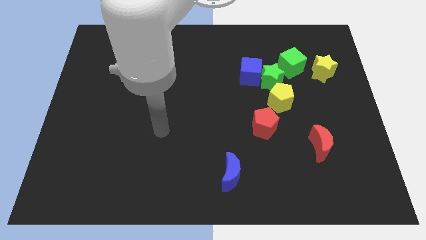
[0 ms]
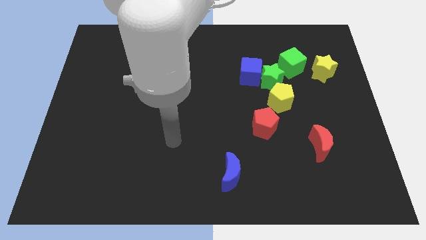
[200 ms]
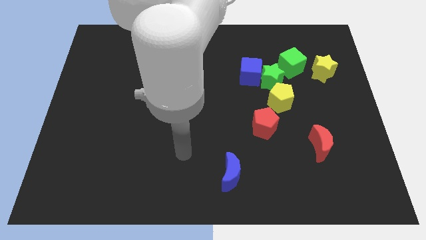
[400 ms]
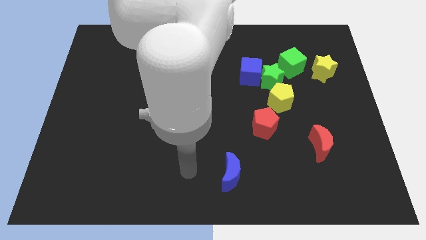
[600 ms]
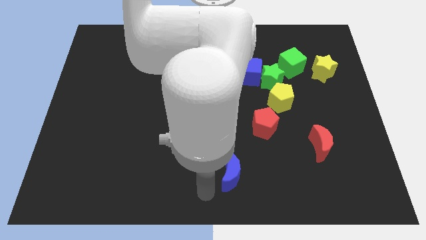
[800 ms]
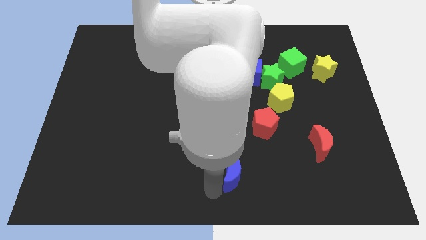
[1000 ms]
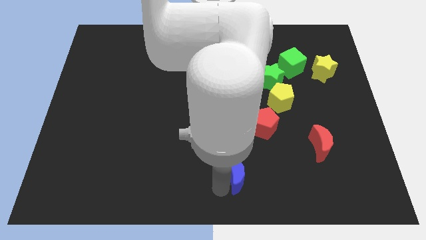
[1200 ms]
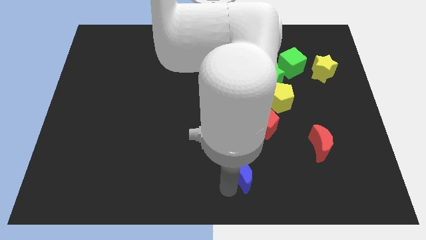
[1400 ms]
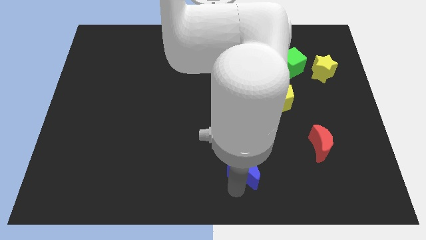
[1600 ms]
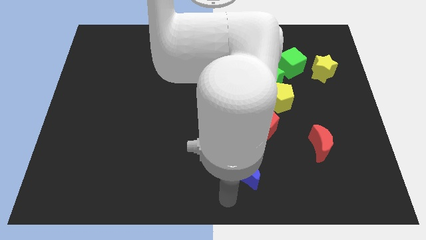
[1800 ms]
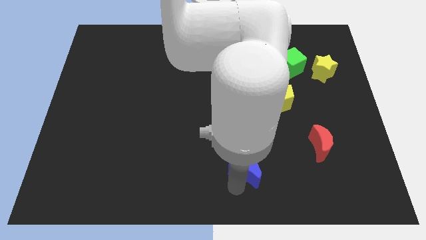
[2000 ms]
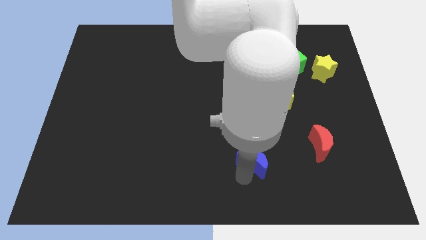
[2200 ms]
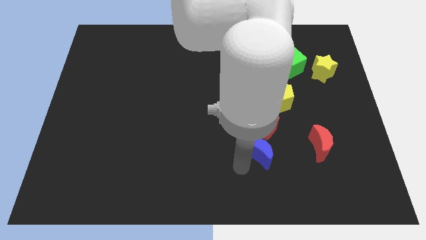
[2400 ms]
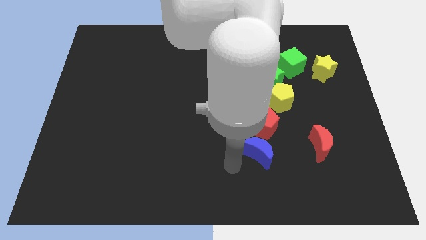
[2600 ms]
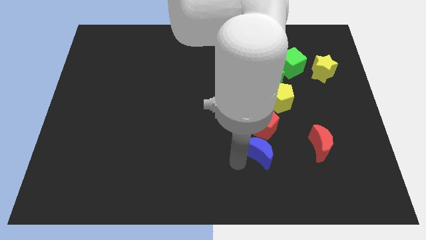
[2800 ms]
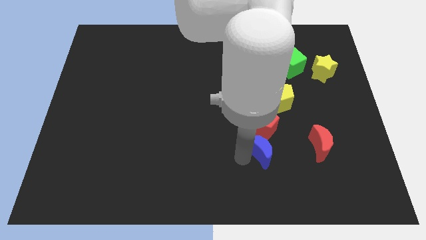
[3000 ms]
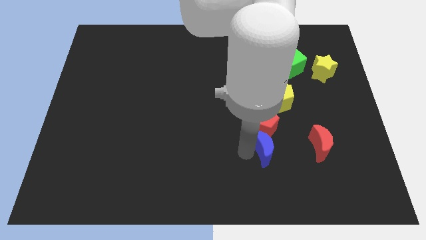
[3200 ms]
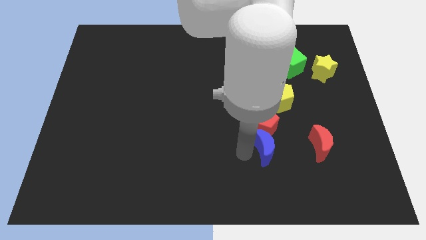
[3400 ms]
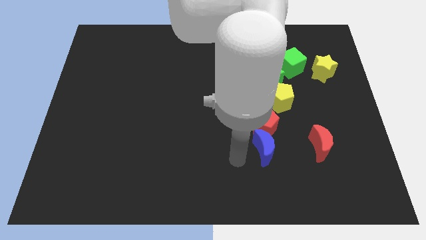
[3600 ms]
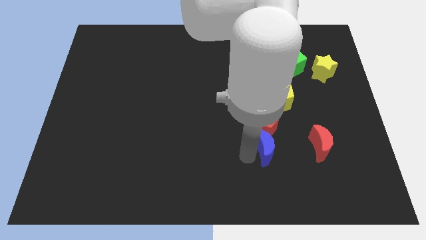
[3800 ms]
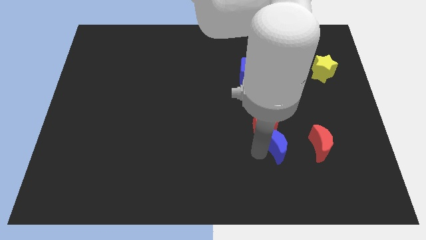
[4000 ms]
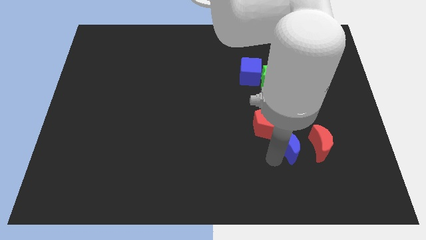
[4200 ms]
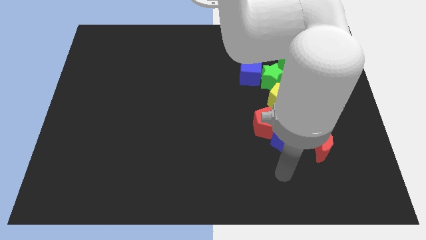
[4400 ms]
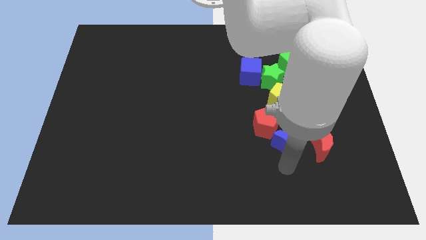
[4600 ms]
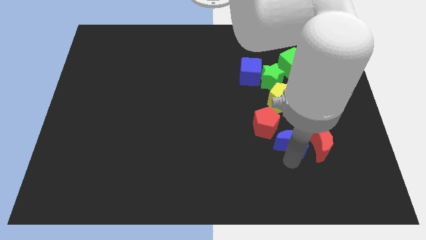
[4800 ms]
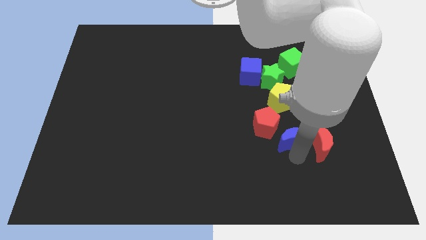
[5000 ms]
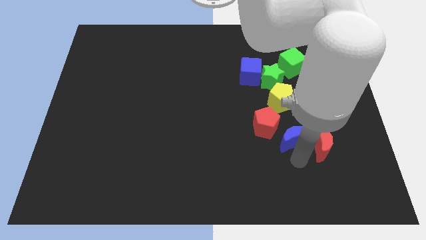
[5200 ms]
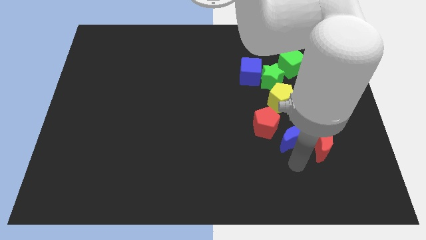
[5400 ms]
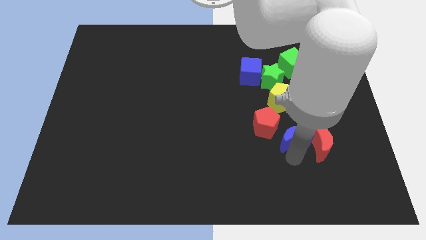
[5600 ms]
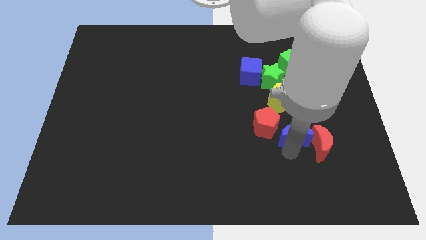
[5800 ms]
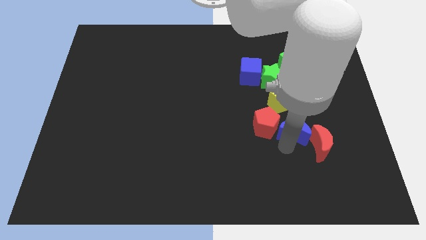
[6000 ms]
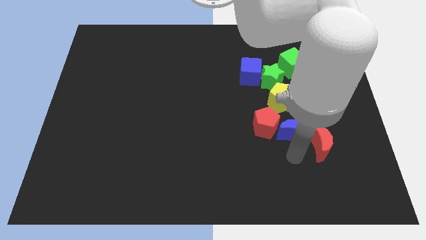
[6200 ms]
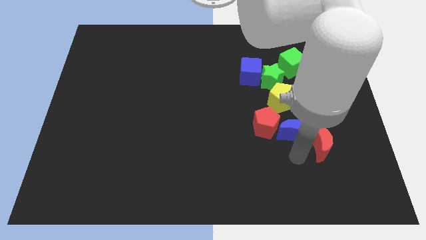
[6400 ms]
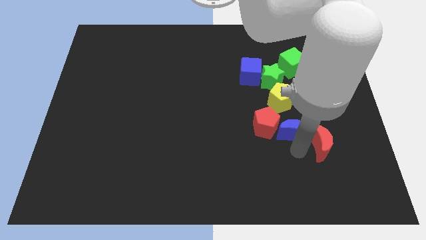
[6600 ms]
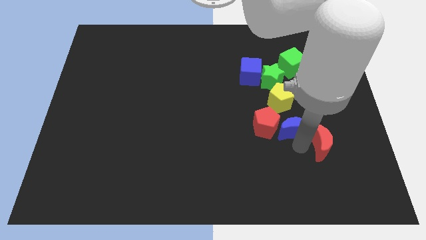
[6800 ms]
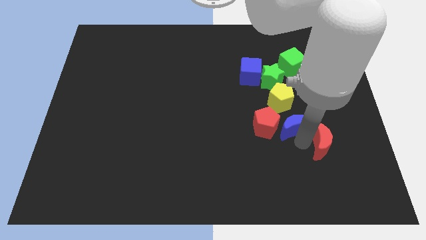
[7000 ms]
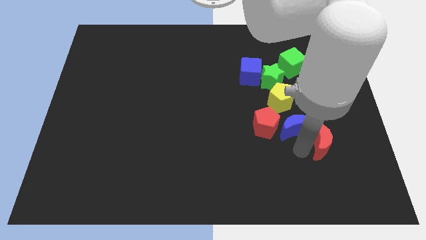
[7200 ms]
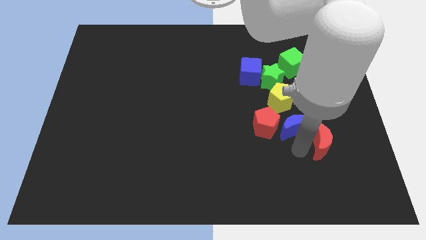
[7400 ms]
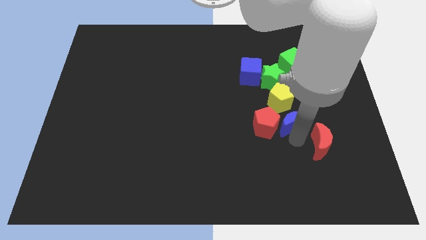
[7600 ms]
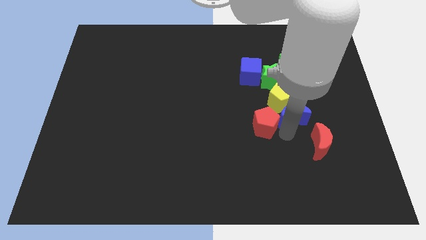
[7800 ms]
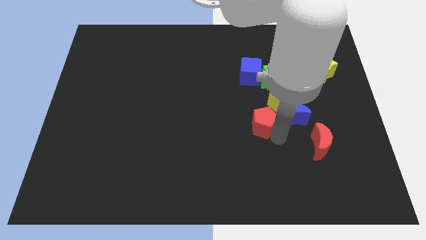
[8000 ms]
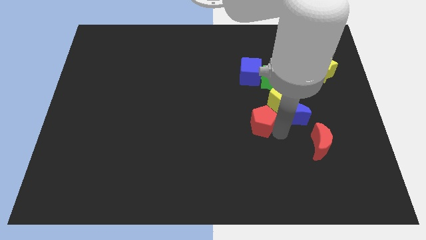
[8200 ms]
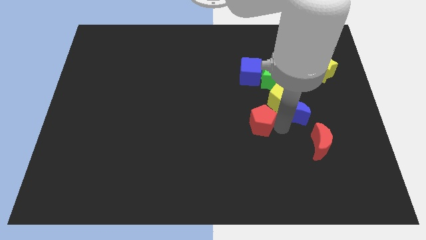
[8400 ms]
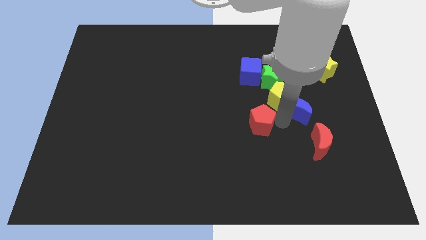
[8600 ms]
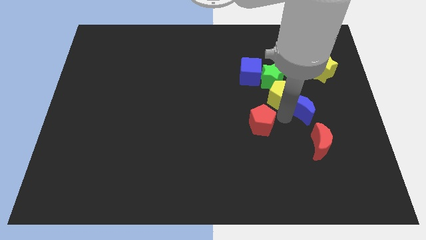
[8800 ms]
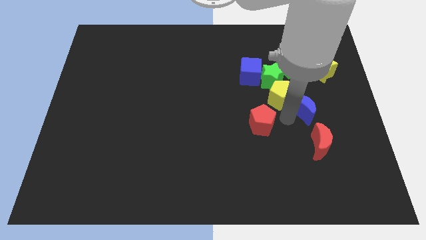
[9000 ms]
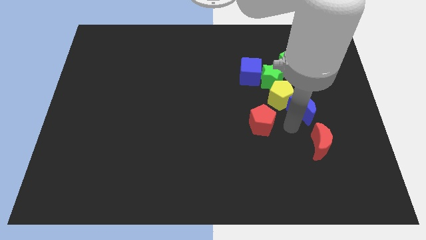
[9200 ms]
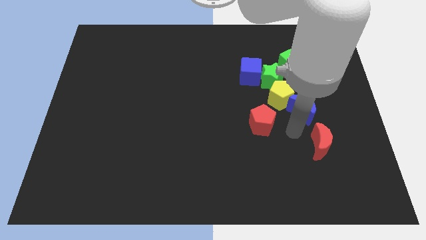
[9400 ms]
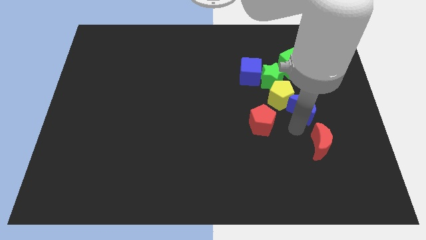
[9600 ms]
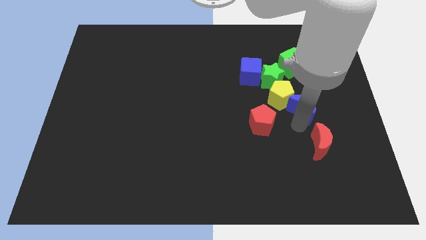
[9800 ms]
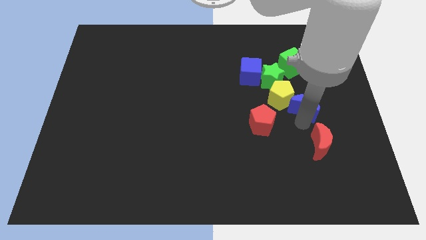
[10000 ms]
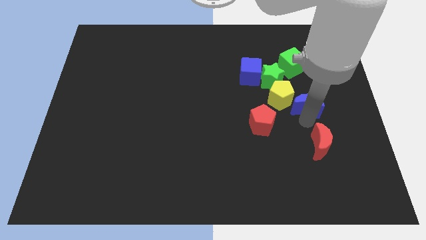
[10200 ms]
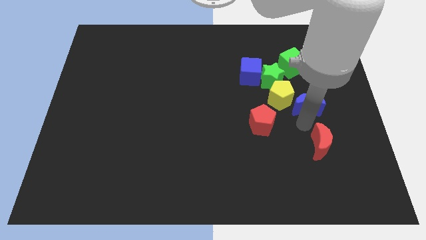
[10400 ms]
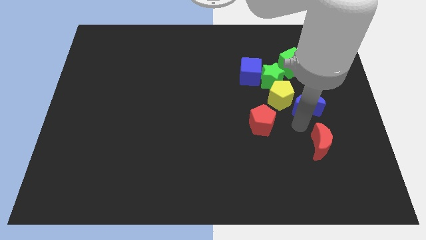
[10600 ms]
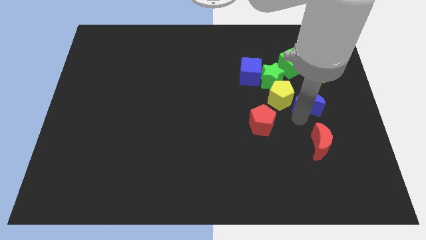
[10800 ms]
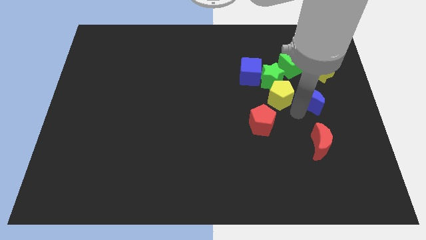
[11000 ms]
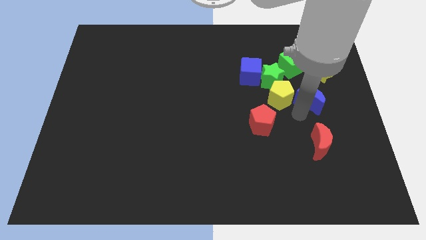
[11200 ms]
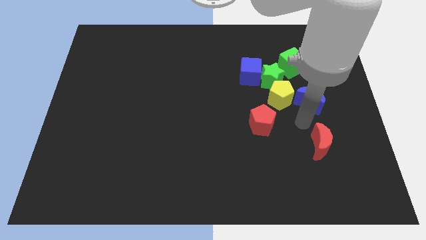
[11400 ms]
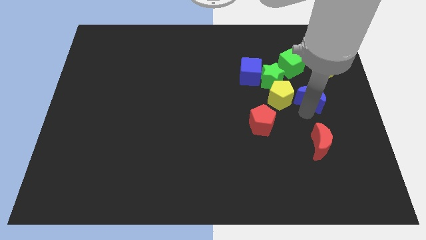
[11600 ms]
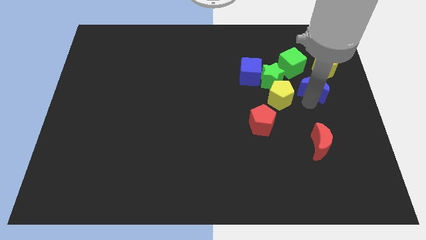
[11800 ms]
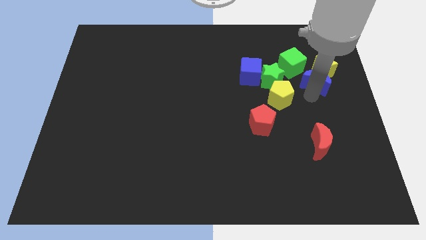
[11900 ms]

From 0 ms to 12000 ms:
move the blue moon next to the yellow star

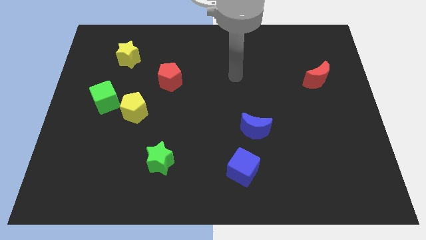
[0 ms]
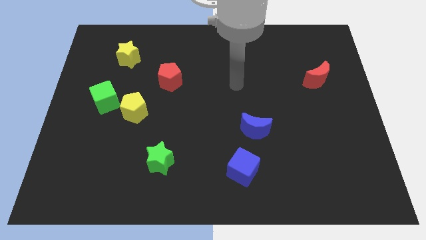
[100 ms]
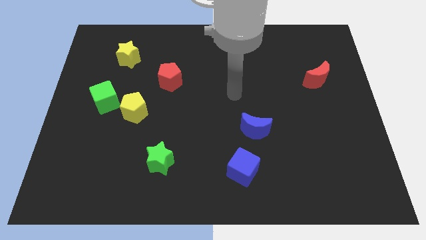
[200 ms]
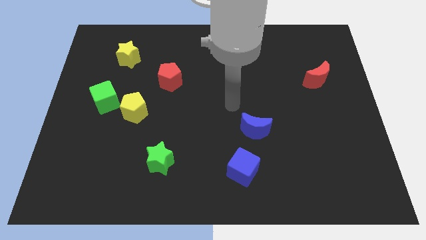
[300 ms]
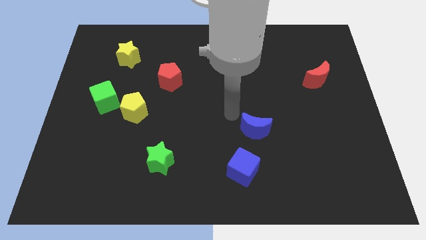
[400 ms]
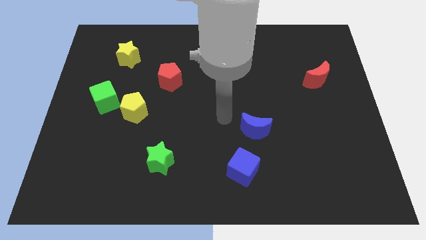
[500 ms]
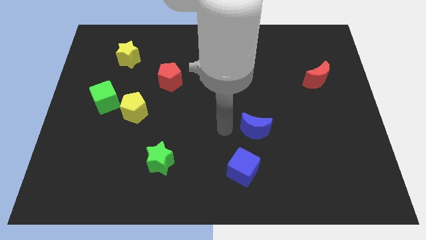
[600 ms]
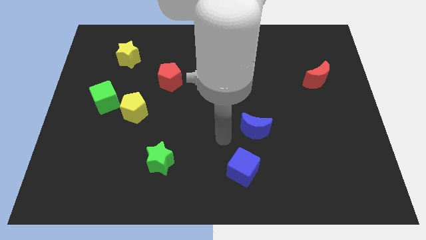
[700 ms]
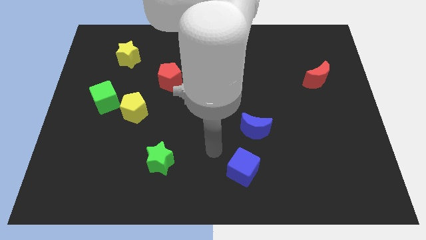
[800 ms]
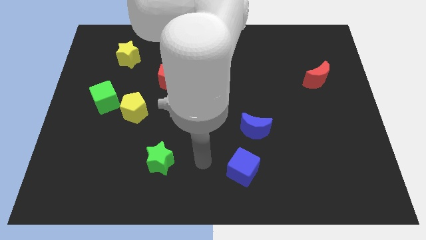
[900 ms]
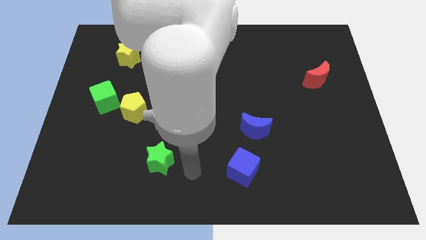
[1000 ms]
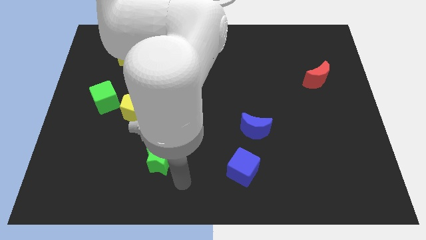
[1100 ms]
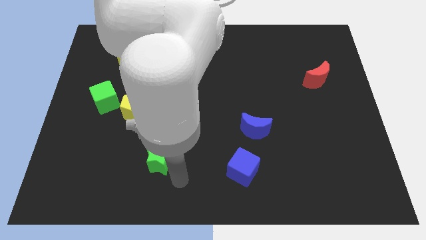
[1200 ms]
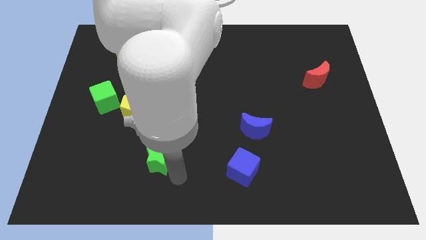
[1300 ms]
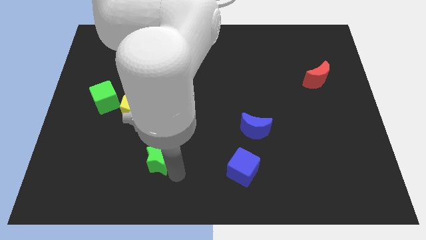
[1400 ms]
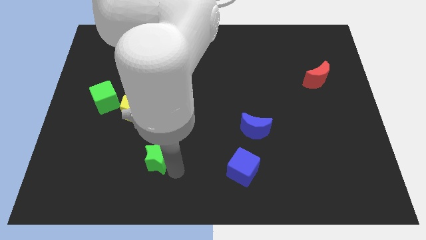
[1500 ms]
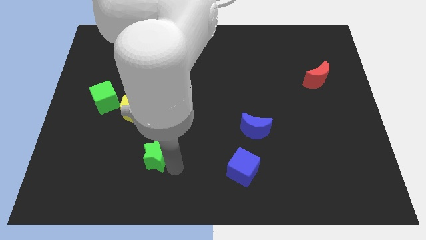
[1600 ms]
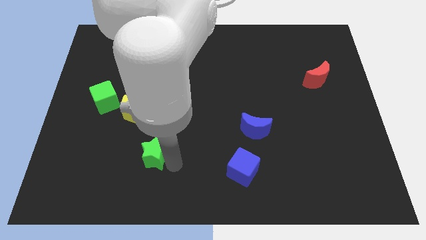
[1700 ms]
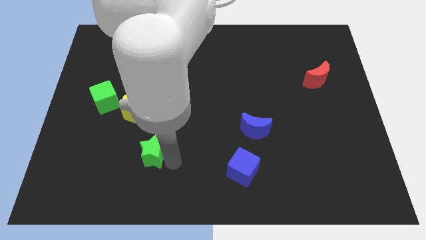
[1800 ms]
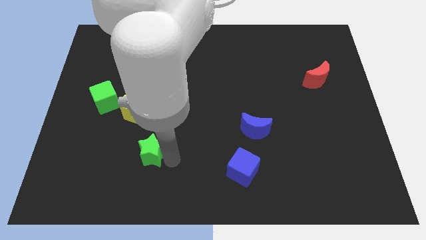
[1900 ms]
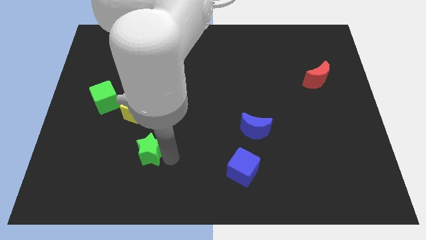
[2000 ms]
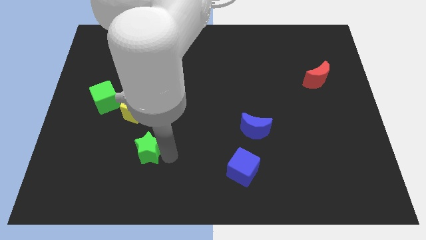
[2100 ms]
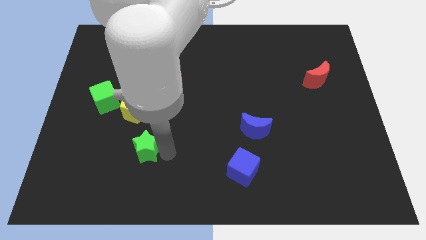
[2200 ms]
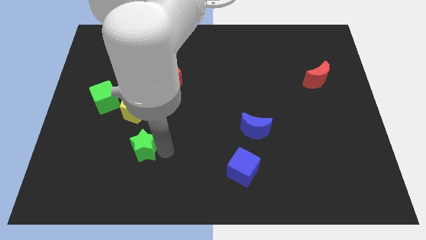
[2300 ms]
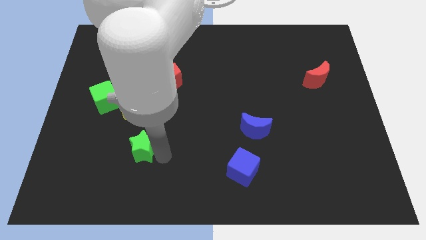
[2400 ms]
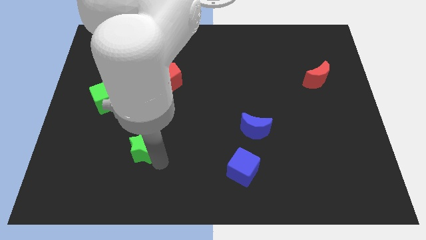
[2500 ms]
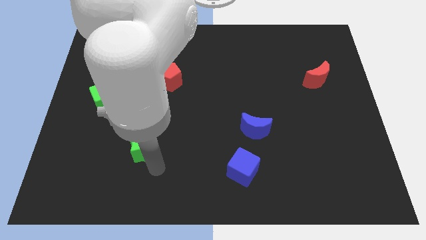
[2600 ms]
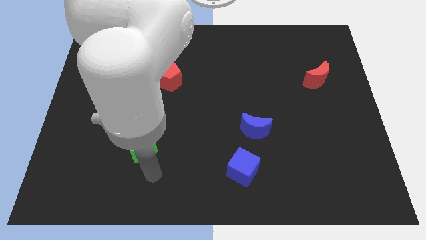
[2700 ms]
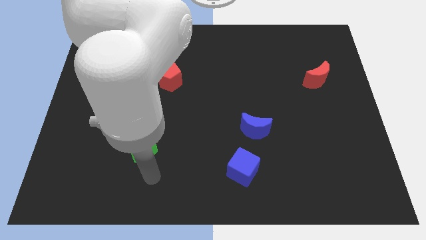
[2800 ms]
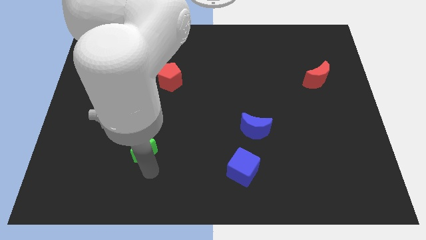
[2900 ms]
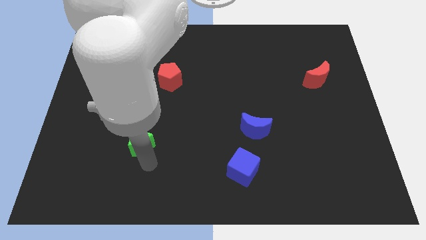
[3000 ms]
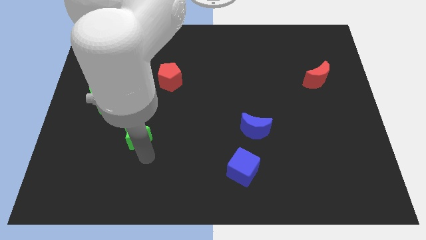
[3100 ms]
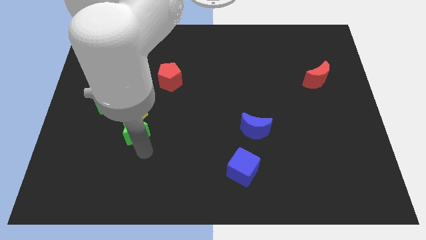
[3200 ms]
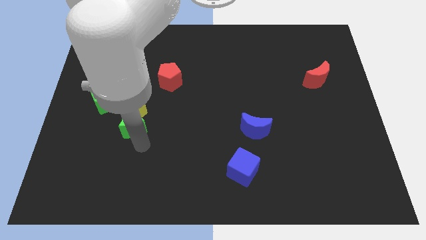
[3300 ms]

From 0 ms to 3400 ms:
put the green star close to the yellow pentagon
